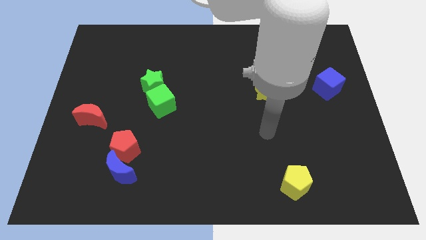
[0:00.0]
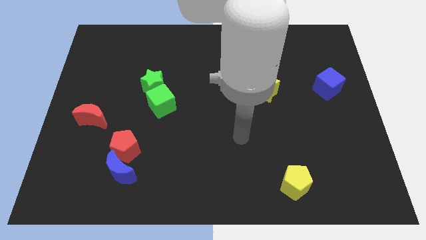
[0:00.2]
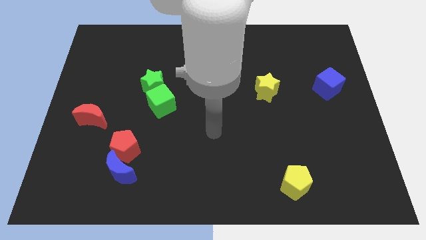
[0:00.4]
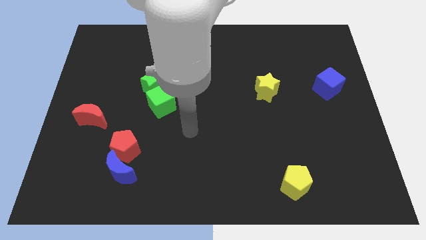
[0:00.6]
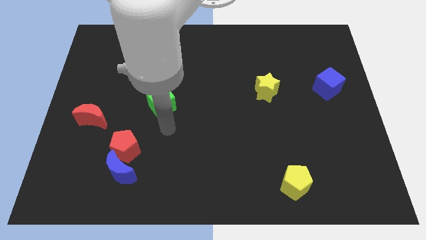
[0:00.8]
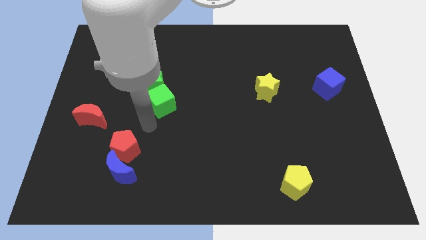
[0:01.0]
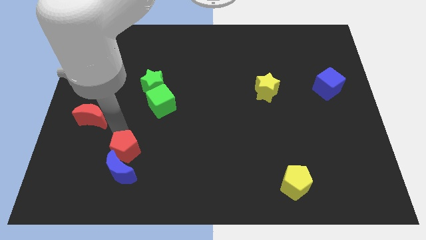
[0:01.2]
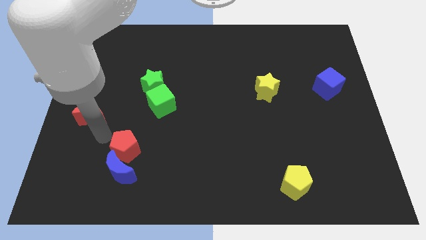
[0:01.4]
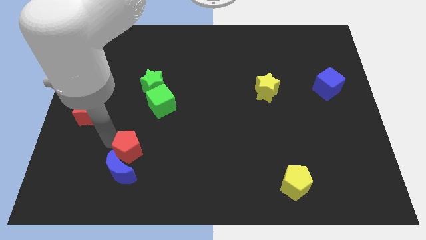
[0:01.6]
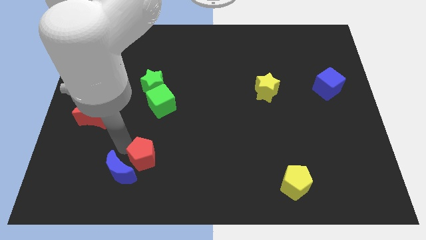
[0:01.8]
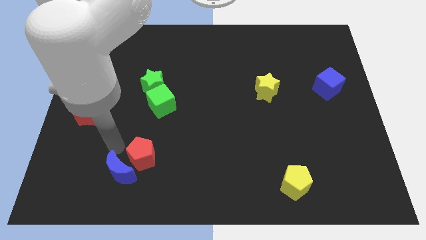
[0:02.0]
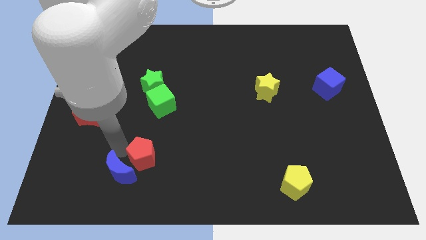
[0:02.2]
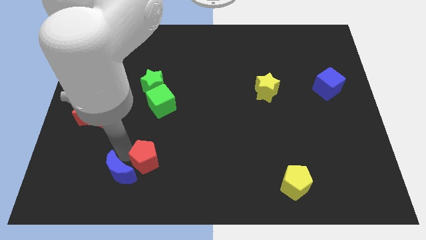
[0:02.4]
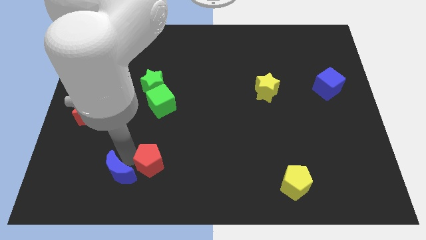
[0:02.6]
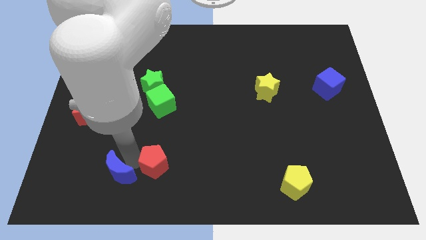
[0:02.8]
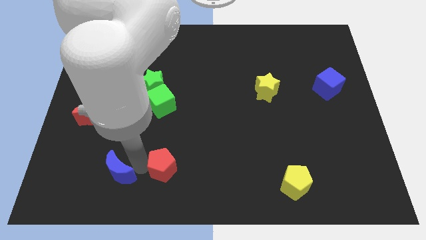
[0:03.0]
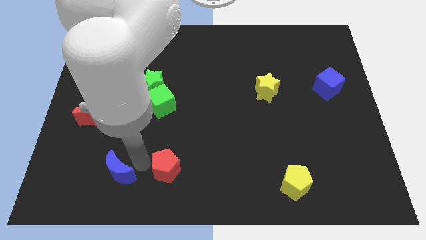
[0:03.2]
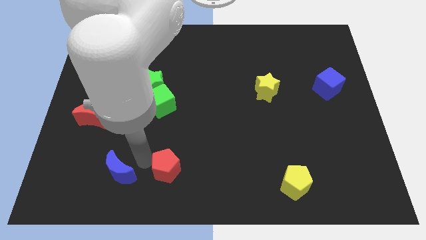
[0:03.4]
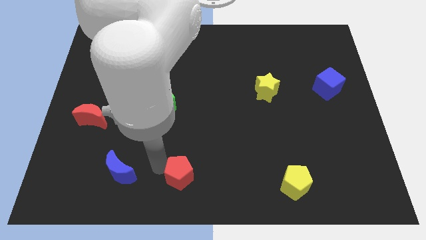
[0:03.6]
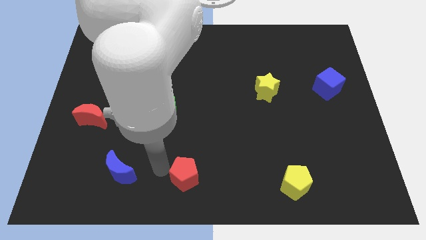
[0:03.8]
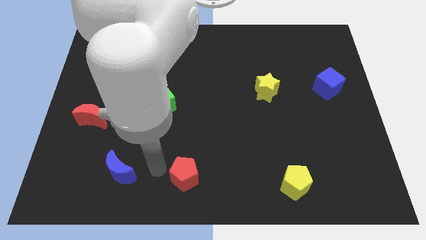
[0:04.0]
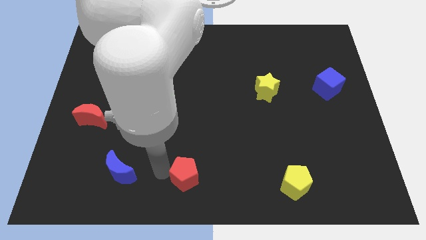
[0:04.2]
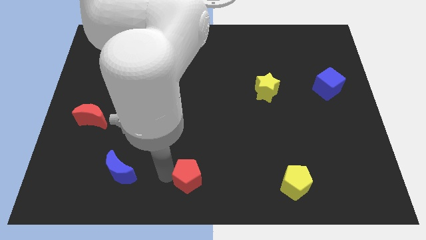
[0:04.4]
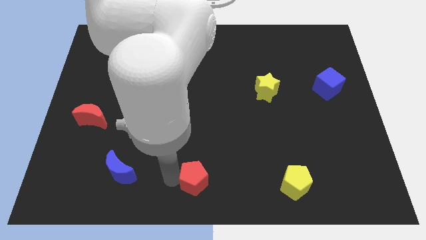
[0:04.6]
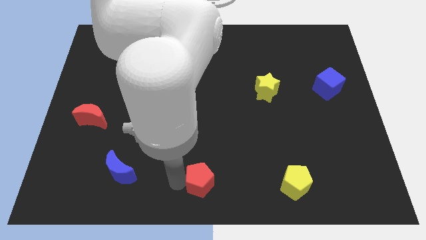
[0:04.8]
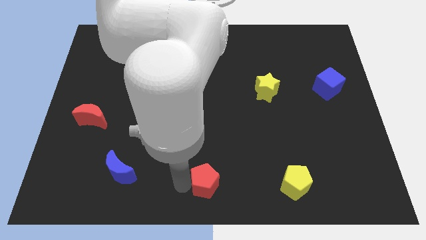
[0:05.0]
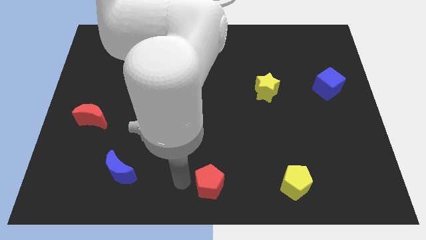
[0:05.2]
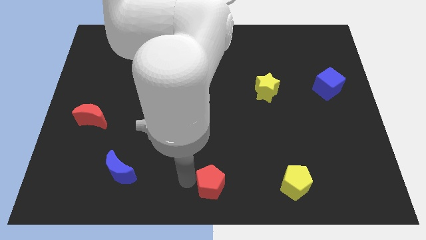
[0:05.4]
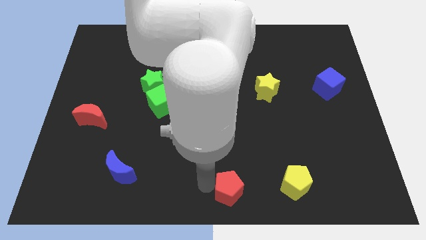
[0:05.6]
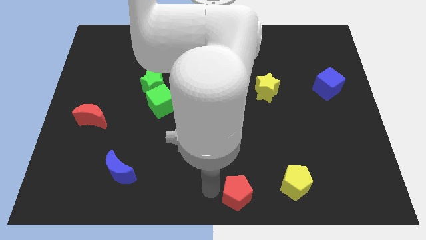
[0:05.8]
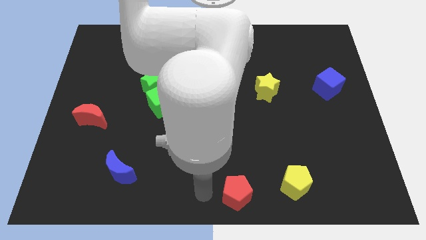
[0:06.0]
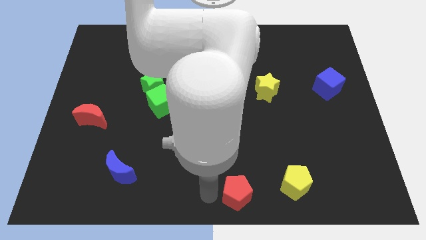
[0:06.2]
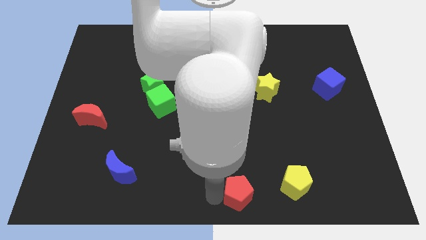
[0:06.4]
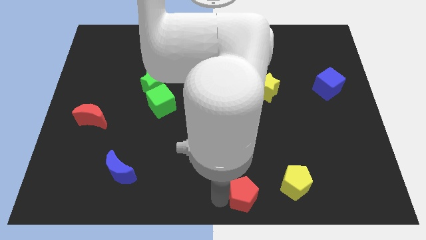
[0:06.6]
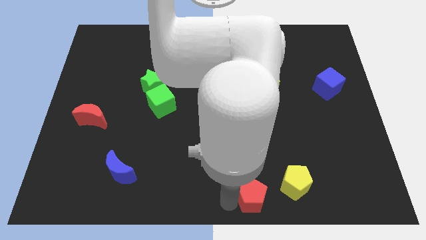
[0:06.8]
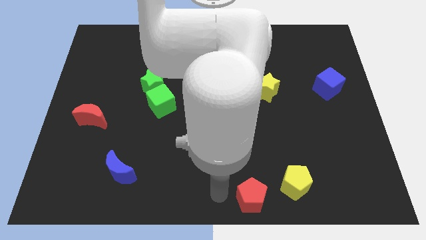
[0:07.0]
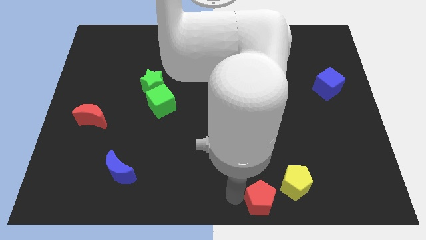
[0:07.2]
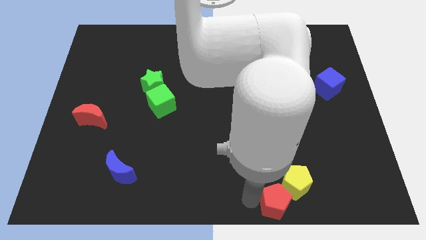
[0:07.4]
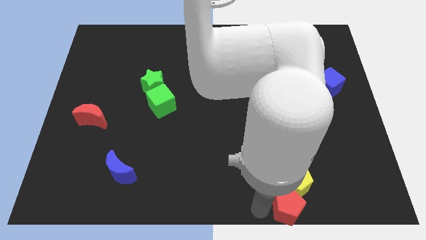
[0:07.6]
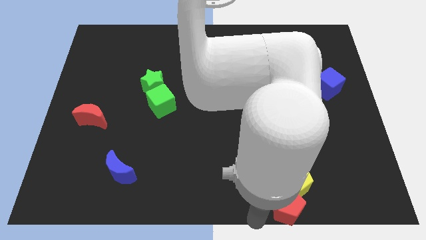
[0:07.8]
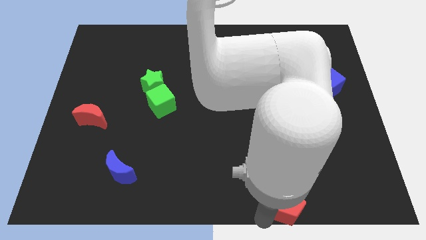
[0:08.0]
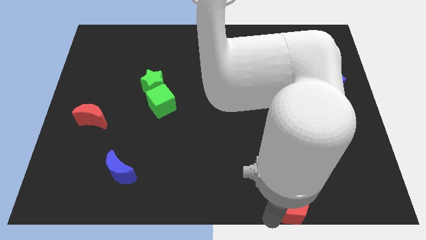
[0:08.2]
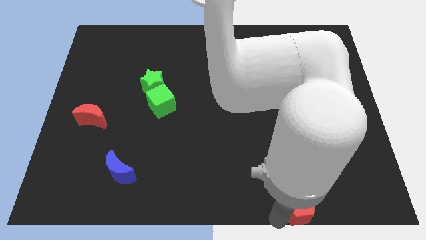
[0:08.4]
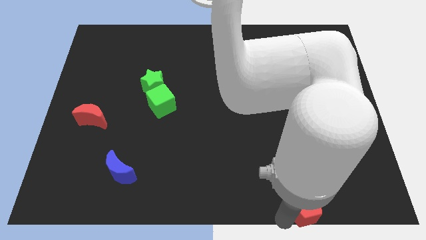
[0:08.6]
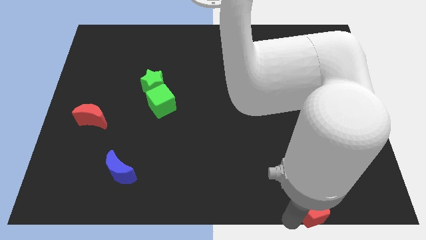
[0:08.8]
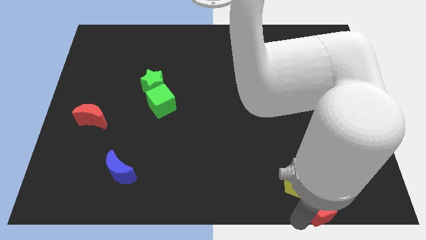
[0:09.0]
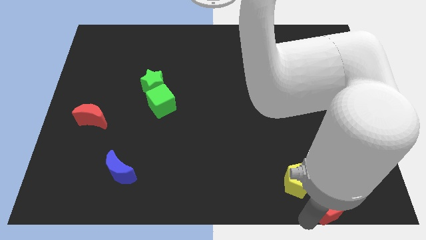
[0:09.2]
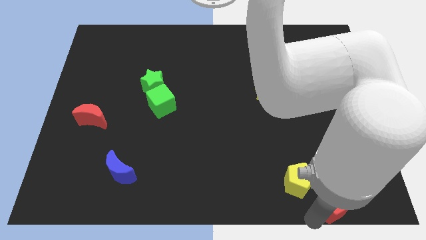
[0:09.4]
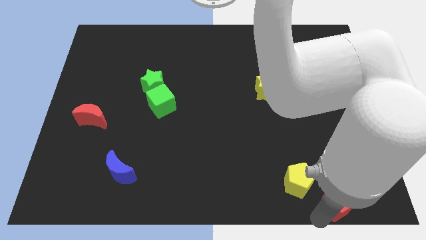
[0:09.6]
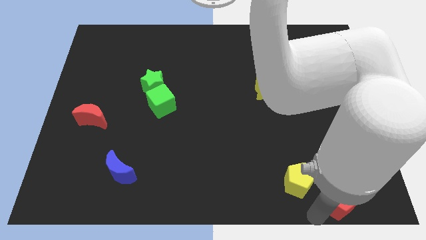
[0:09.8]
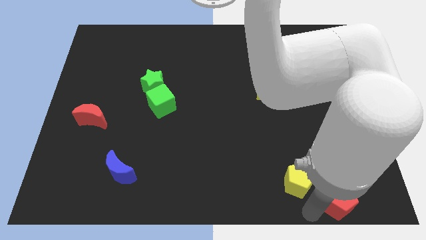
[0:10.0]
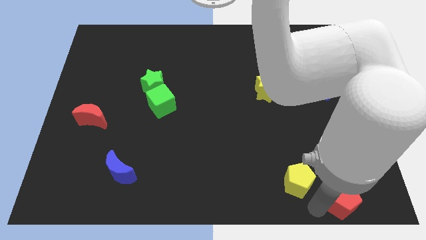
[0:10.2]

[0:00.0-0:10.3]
put the red pentagon to the bottom right of the board

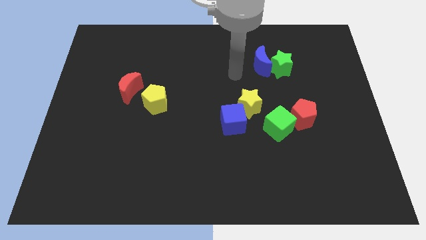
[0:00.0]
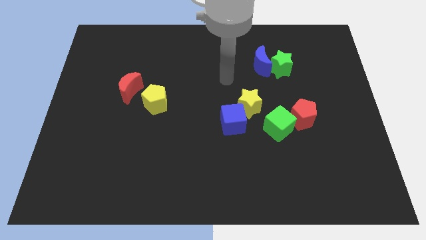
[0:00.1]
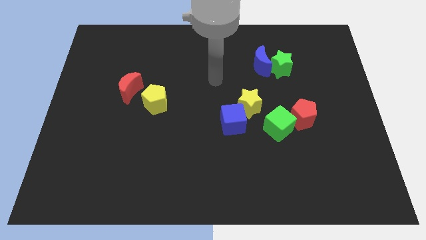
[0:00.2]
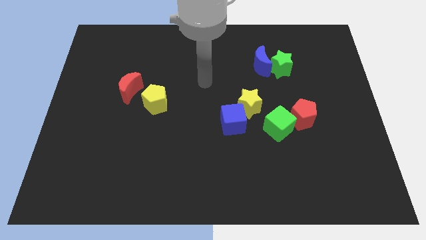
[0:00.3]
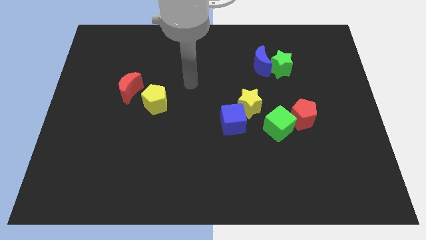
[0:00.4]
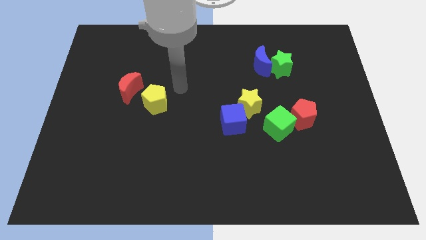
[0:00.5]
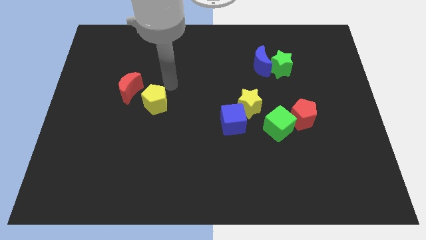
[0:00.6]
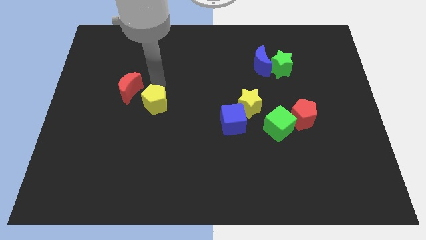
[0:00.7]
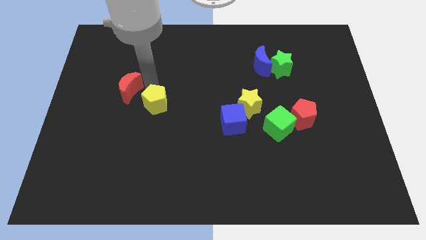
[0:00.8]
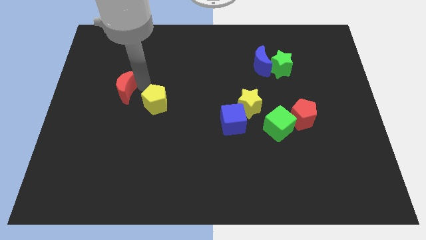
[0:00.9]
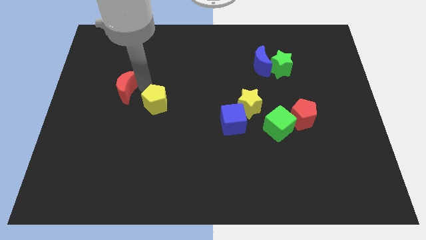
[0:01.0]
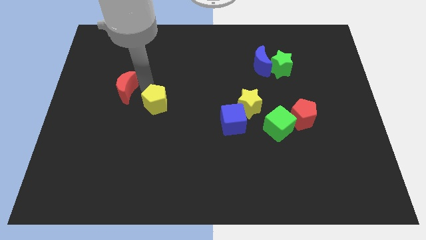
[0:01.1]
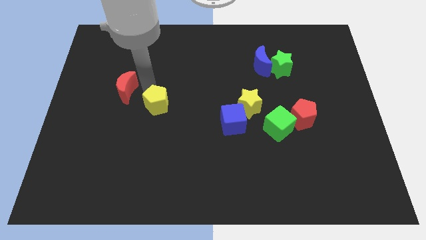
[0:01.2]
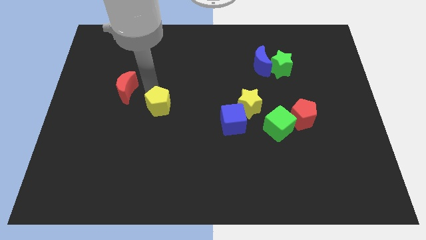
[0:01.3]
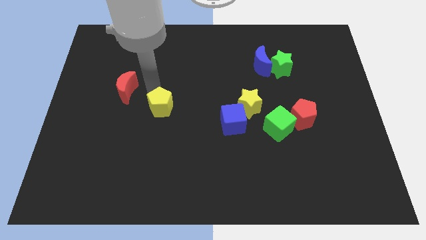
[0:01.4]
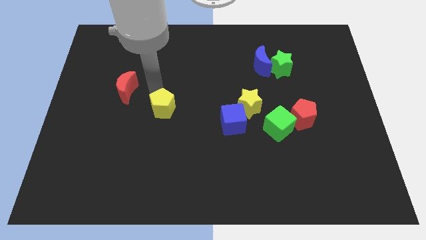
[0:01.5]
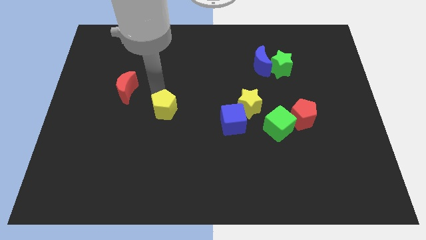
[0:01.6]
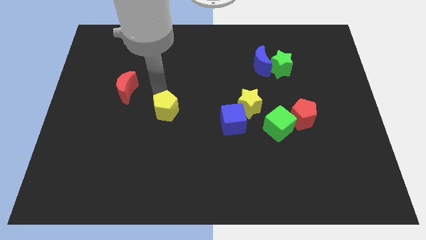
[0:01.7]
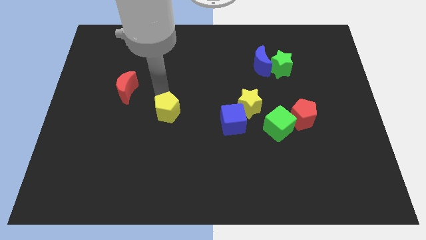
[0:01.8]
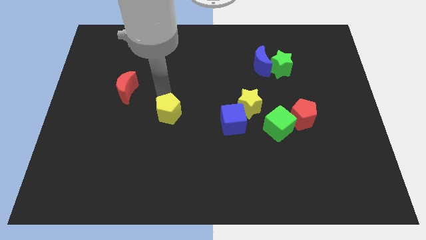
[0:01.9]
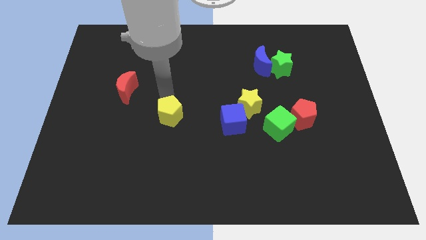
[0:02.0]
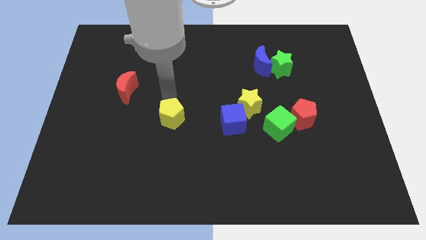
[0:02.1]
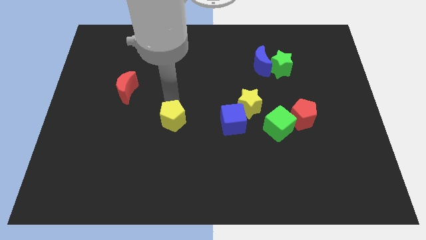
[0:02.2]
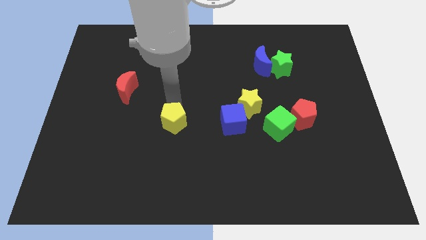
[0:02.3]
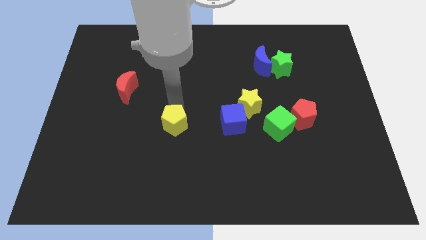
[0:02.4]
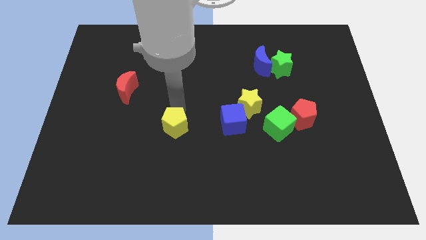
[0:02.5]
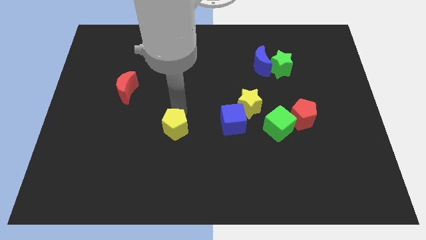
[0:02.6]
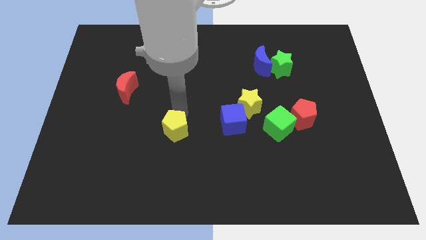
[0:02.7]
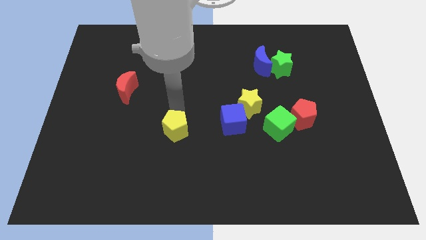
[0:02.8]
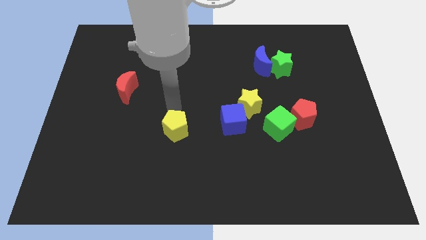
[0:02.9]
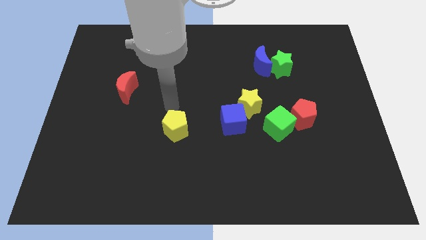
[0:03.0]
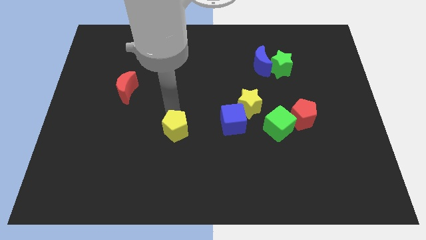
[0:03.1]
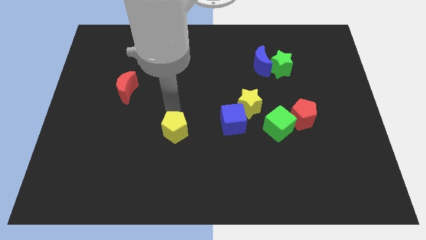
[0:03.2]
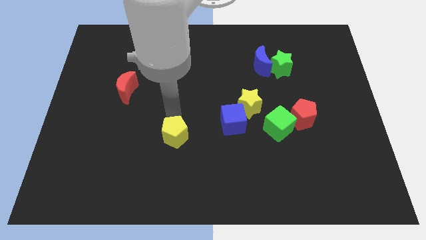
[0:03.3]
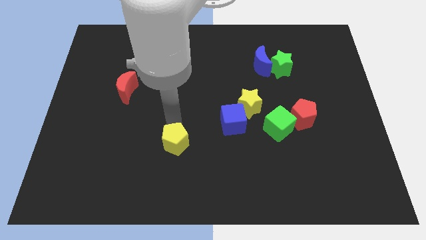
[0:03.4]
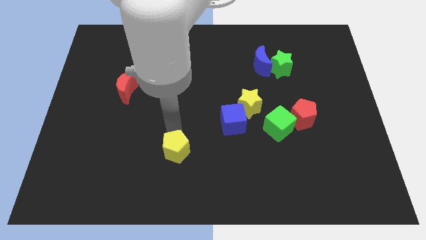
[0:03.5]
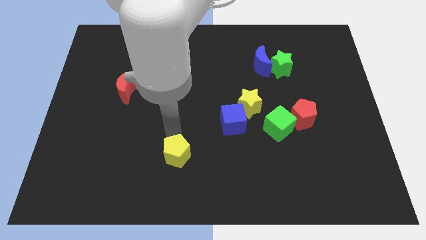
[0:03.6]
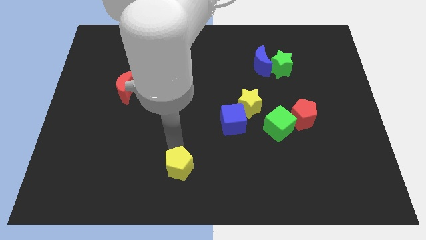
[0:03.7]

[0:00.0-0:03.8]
put the yellow pentagon to the bottom side
